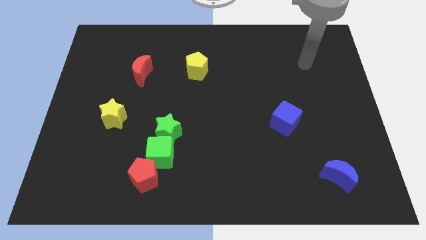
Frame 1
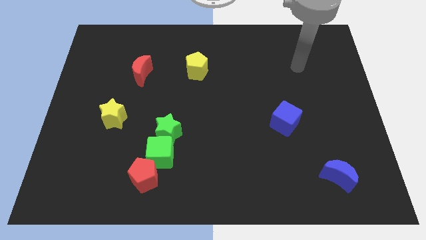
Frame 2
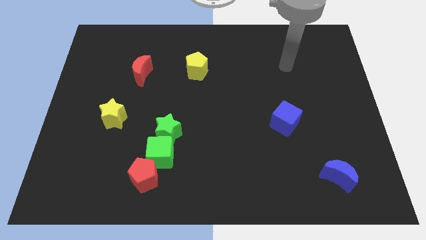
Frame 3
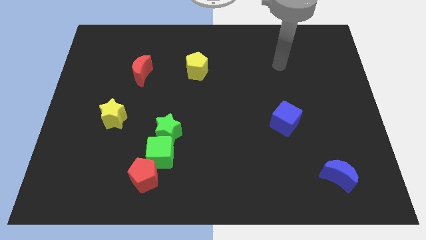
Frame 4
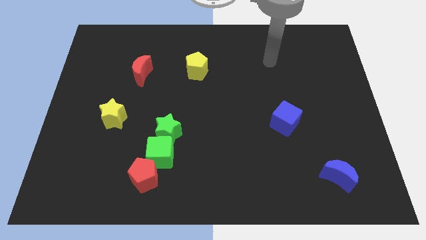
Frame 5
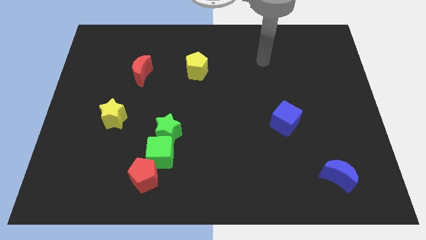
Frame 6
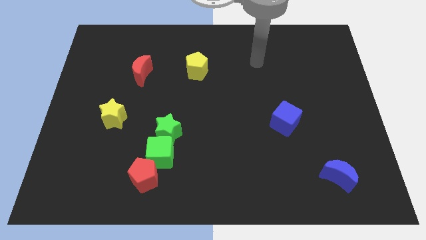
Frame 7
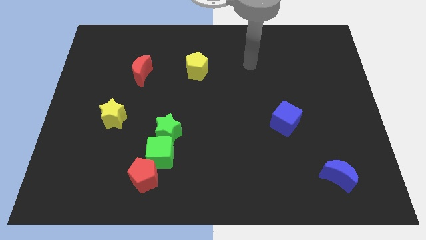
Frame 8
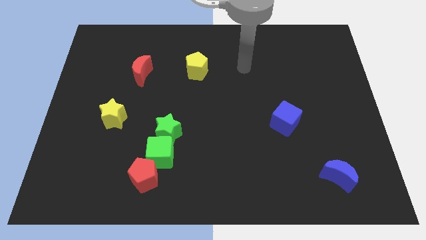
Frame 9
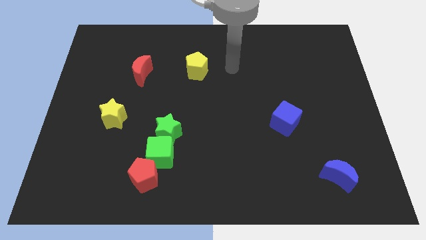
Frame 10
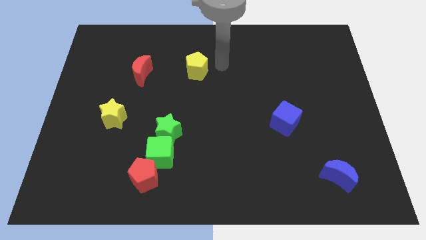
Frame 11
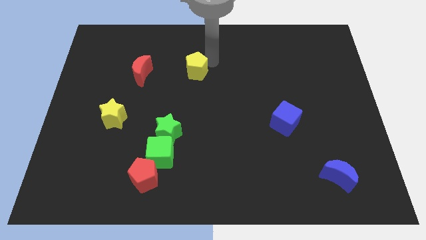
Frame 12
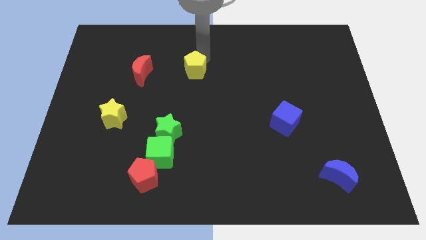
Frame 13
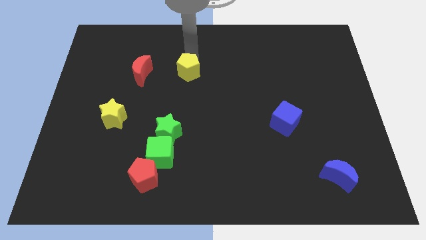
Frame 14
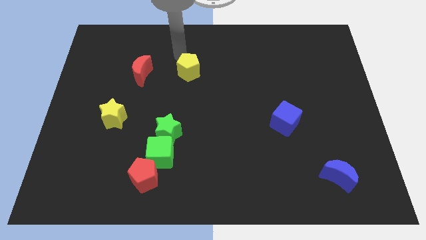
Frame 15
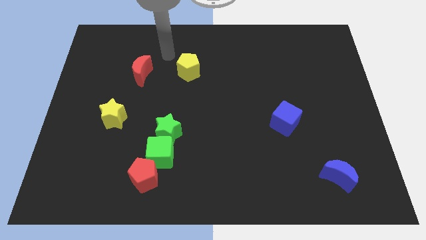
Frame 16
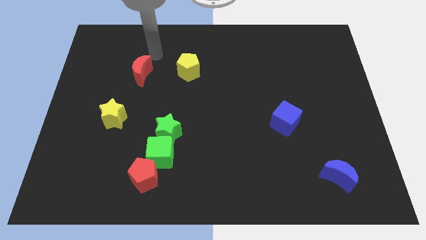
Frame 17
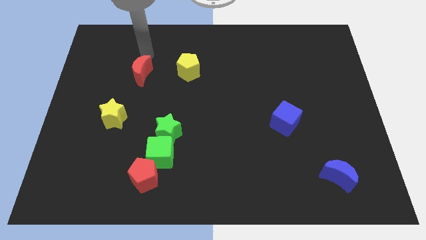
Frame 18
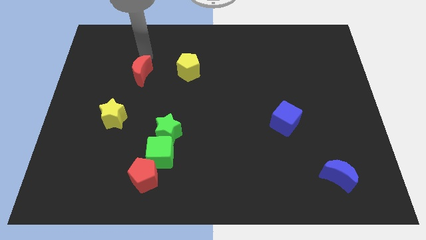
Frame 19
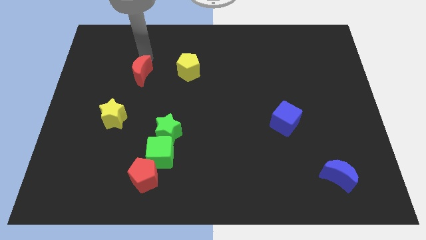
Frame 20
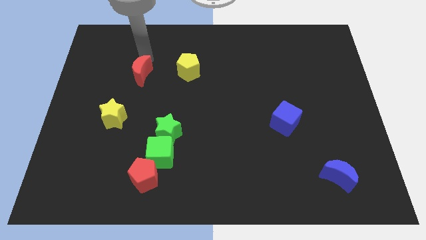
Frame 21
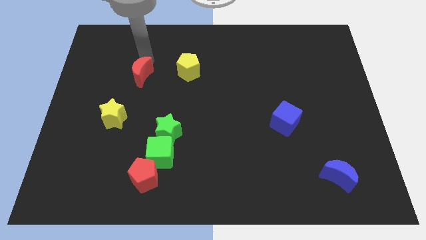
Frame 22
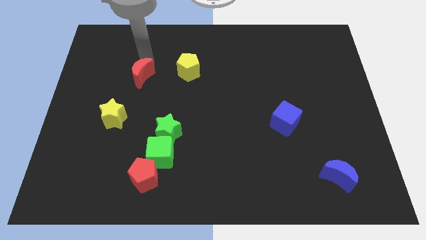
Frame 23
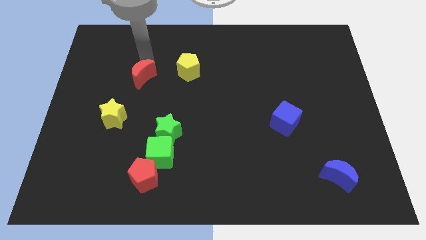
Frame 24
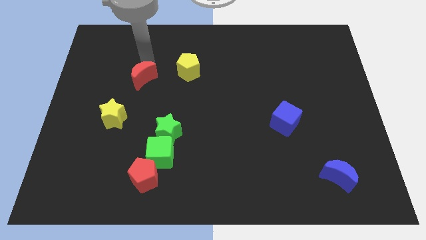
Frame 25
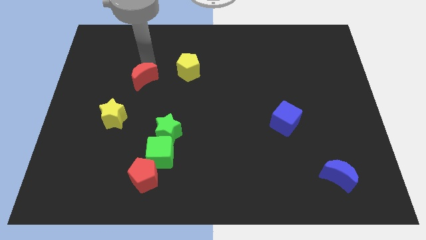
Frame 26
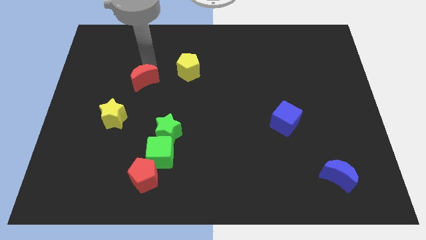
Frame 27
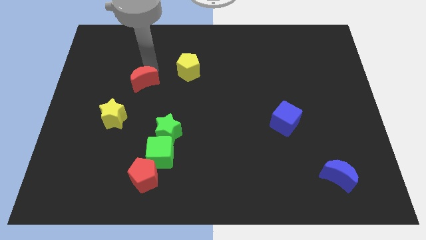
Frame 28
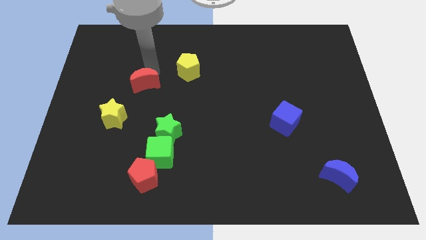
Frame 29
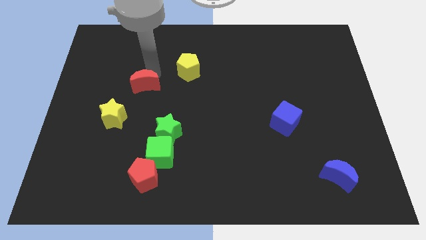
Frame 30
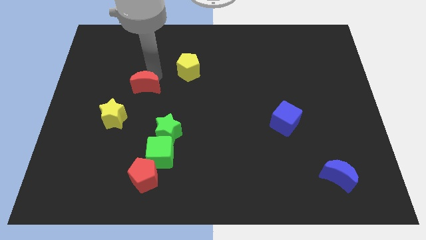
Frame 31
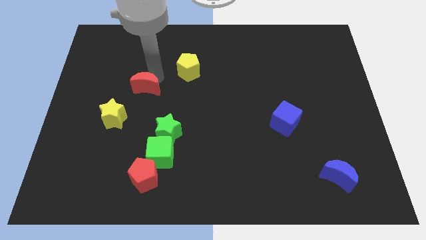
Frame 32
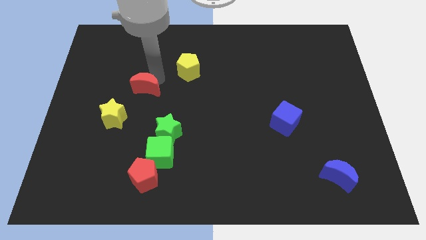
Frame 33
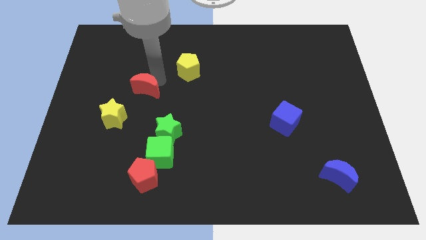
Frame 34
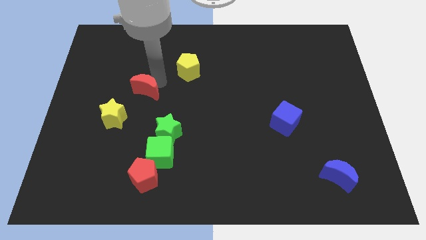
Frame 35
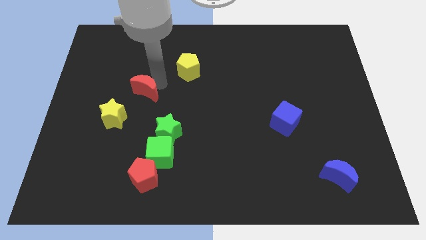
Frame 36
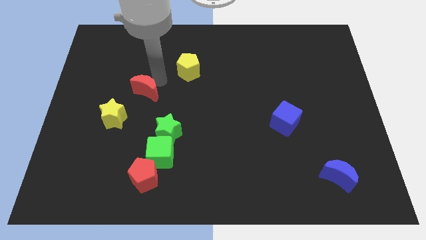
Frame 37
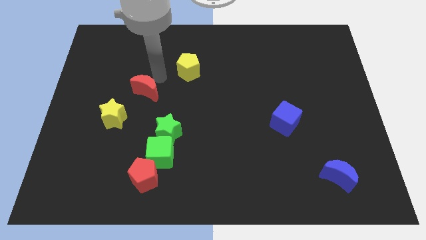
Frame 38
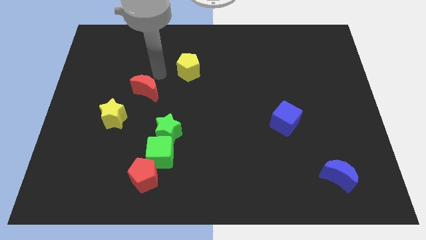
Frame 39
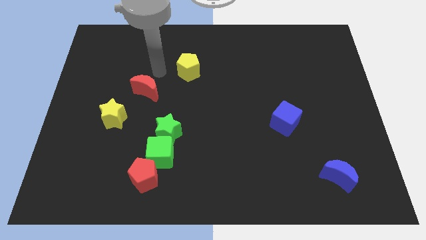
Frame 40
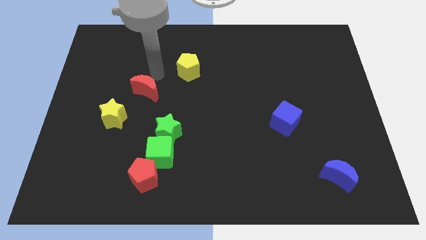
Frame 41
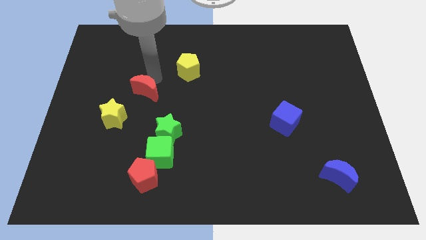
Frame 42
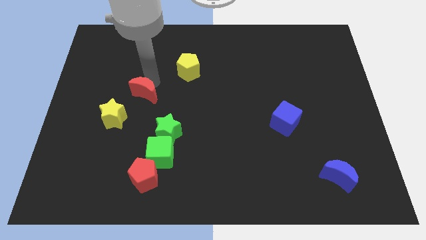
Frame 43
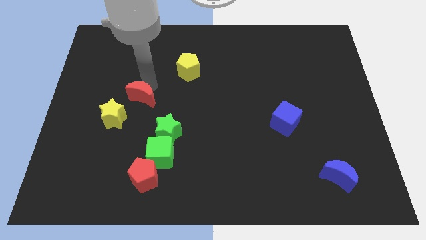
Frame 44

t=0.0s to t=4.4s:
slightly push the red moon downwards

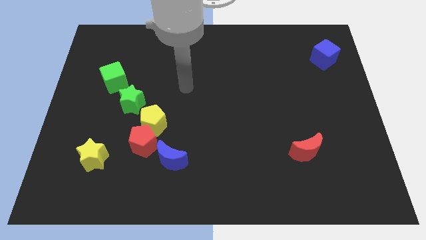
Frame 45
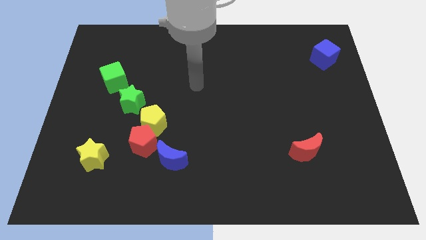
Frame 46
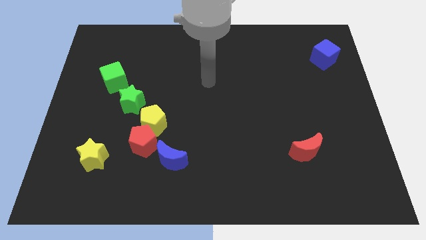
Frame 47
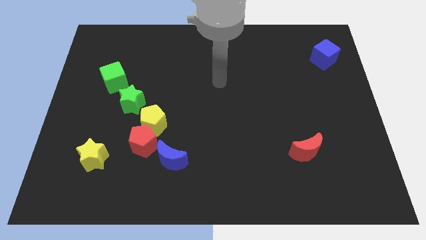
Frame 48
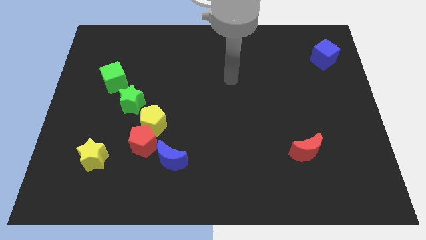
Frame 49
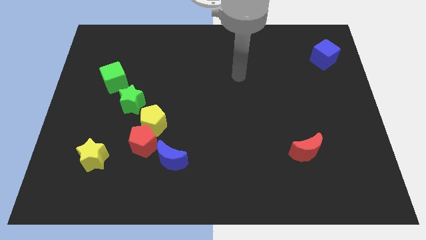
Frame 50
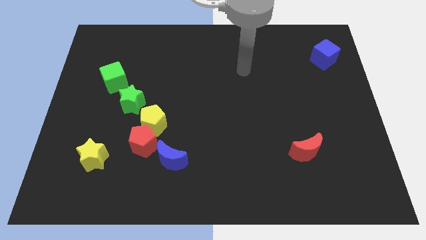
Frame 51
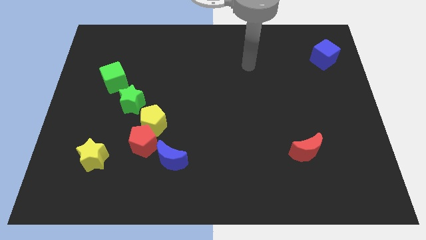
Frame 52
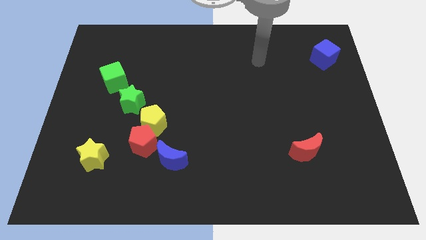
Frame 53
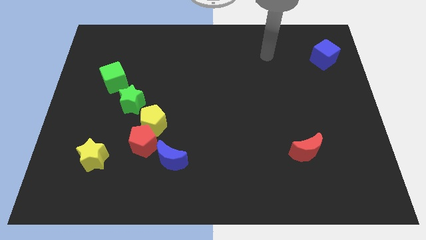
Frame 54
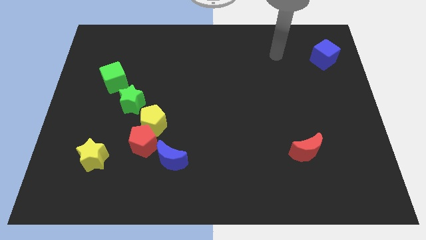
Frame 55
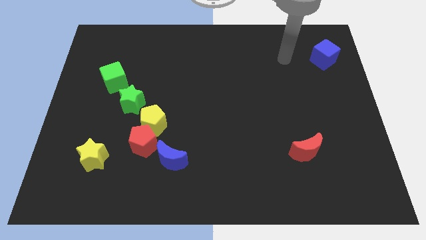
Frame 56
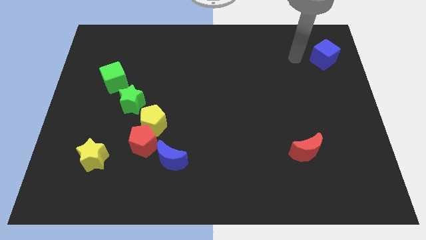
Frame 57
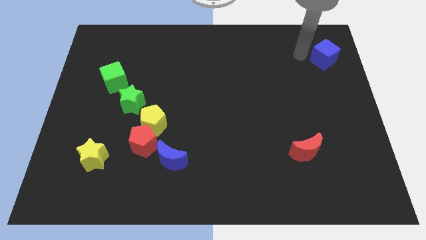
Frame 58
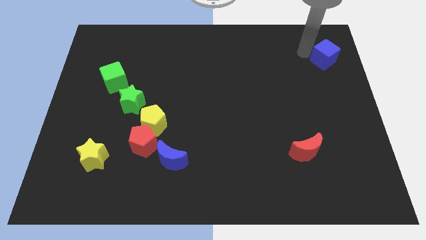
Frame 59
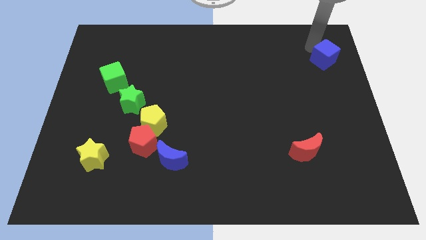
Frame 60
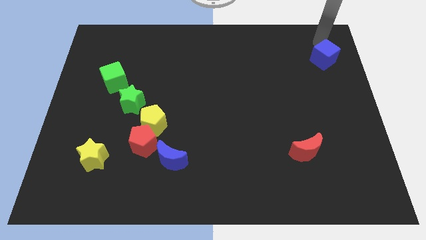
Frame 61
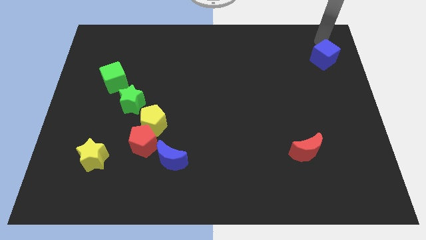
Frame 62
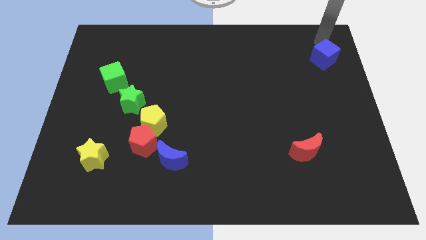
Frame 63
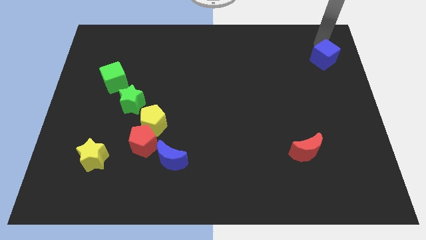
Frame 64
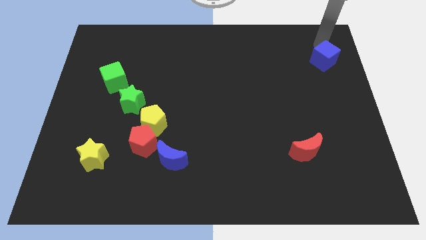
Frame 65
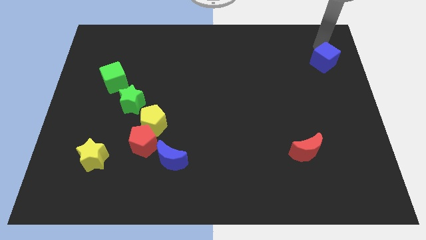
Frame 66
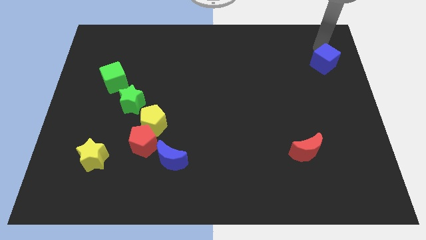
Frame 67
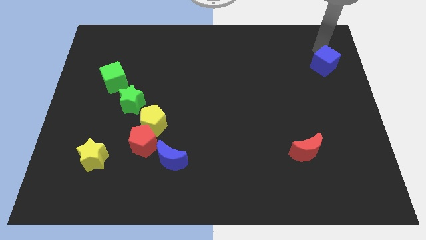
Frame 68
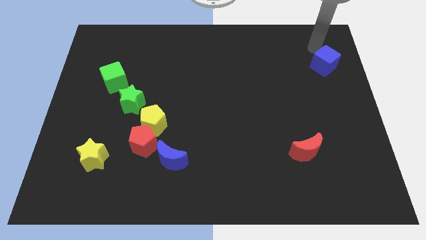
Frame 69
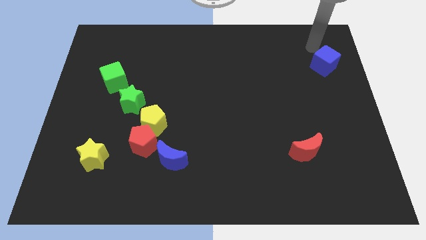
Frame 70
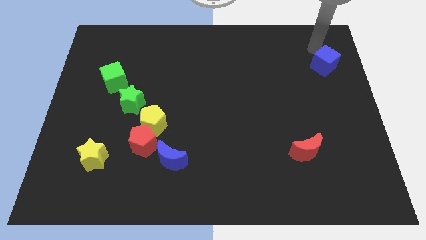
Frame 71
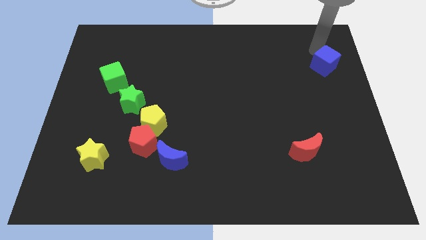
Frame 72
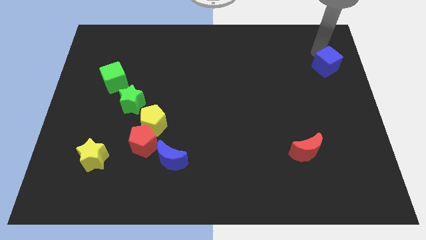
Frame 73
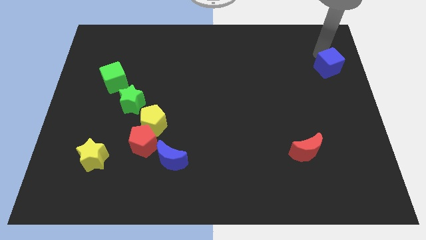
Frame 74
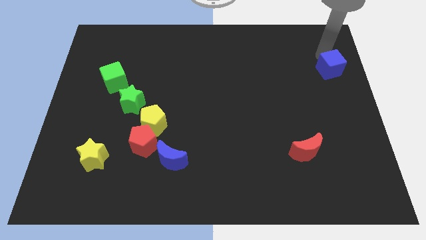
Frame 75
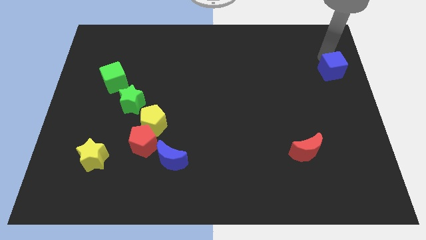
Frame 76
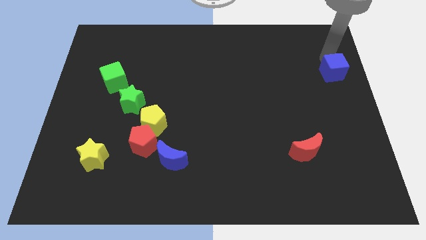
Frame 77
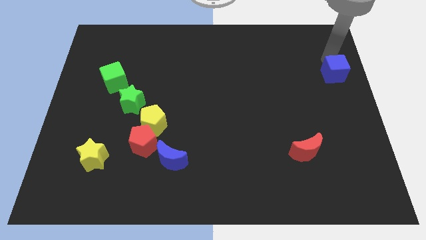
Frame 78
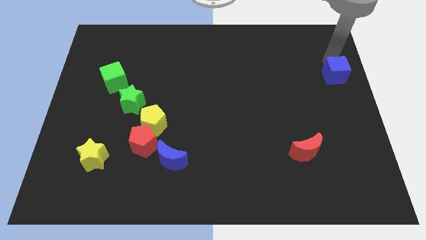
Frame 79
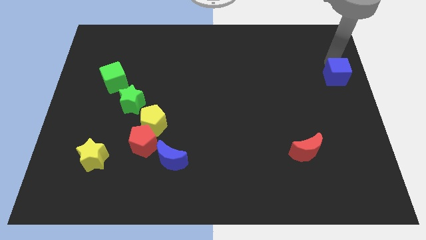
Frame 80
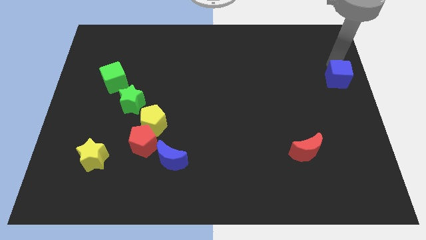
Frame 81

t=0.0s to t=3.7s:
push the blue cube down a little bit
